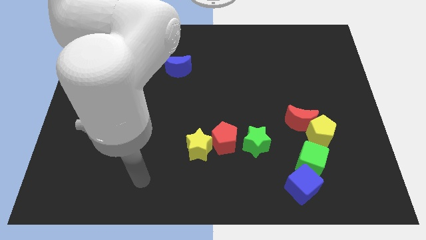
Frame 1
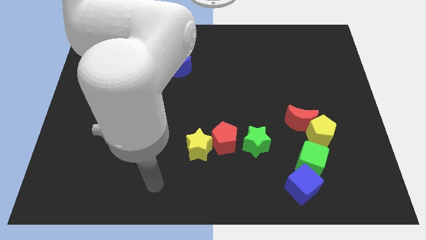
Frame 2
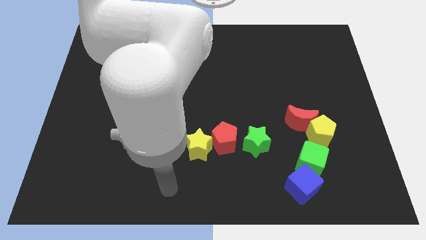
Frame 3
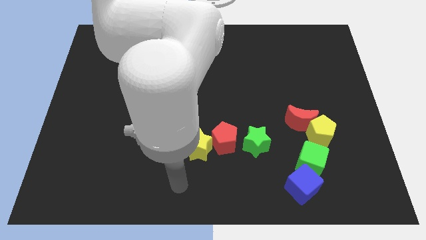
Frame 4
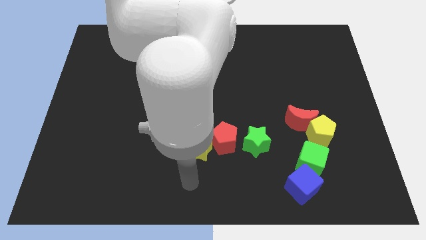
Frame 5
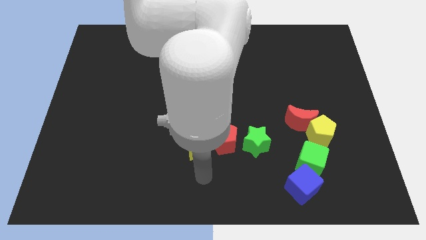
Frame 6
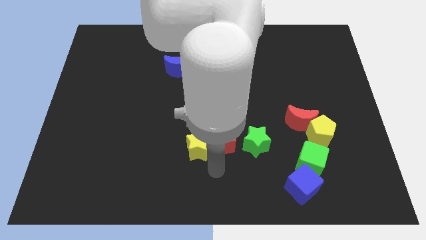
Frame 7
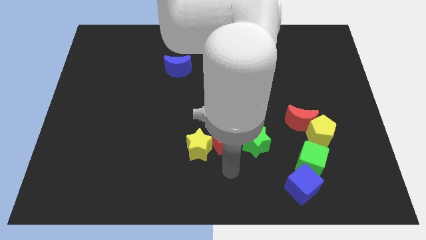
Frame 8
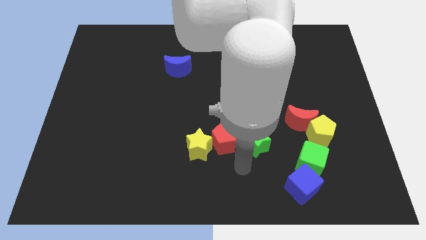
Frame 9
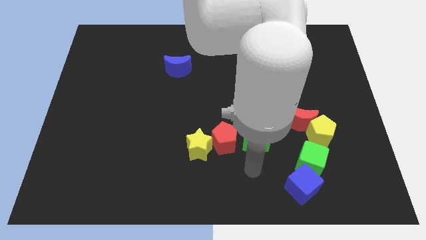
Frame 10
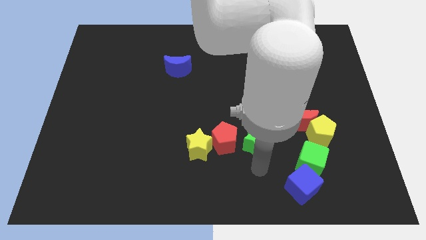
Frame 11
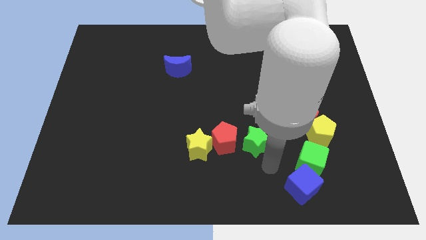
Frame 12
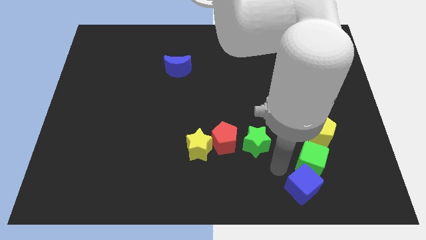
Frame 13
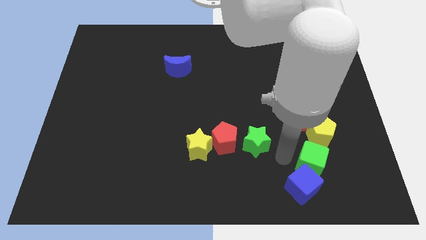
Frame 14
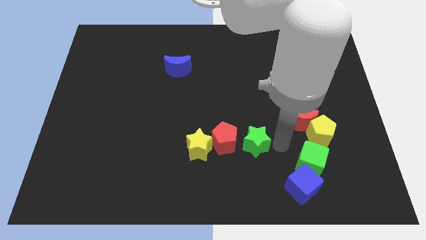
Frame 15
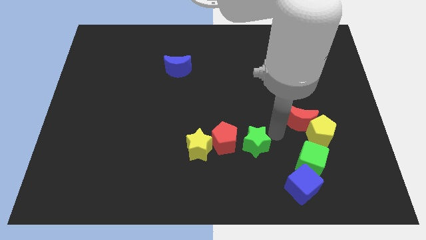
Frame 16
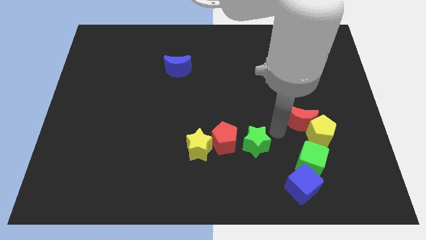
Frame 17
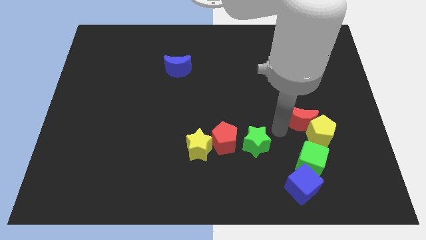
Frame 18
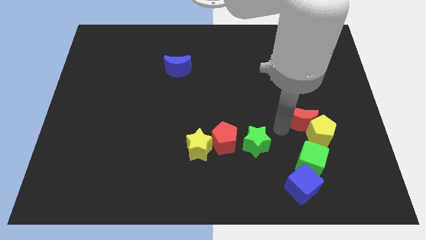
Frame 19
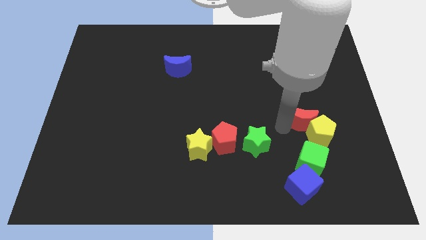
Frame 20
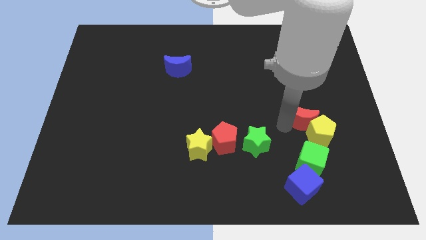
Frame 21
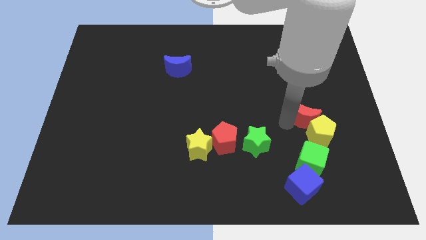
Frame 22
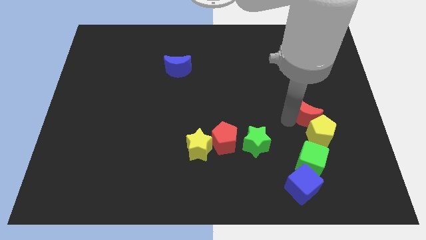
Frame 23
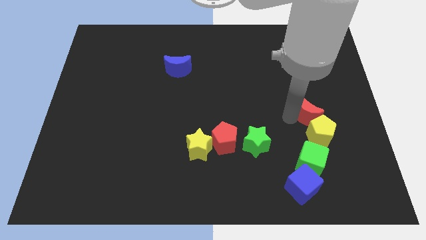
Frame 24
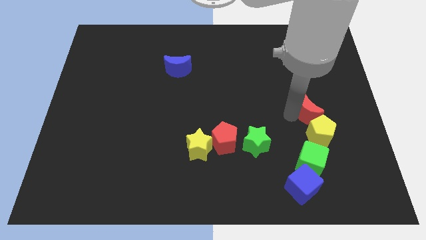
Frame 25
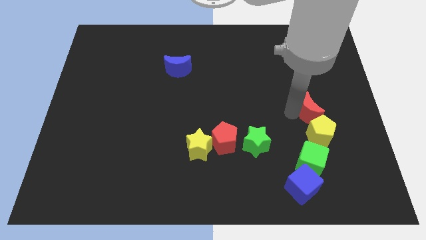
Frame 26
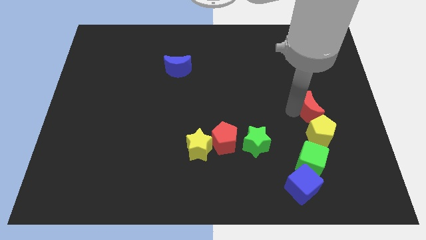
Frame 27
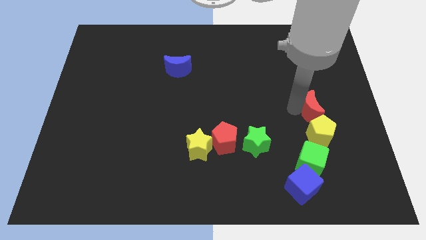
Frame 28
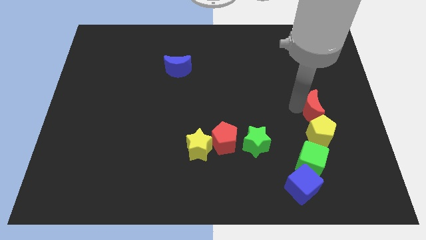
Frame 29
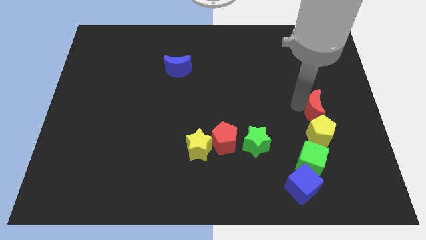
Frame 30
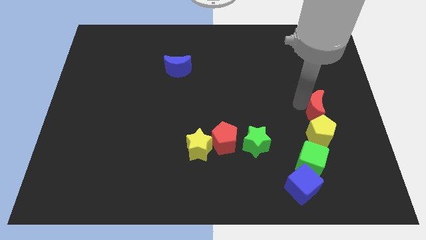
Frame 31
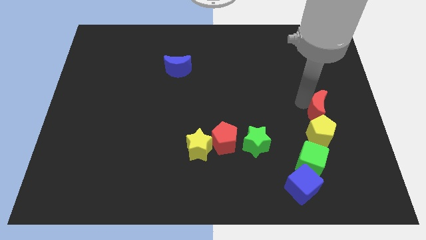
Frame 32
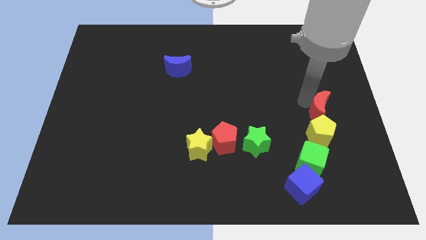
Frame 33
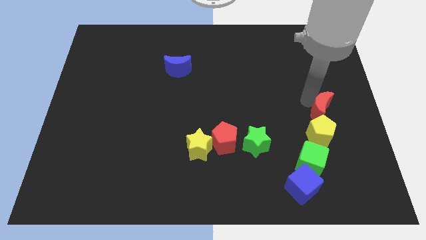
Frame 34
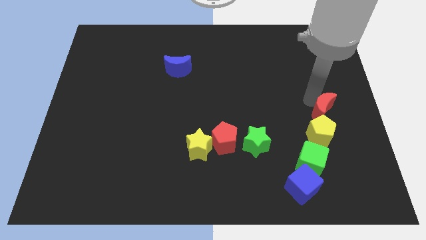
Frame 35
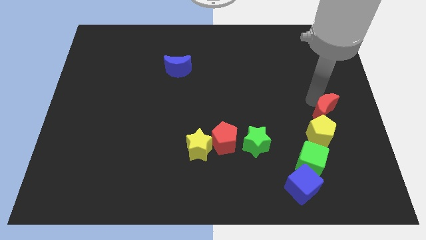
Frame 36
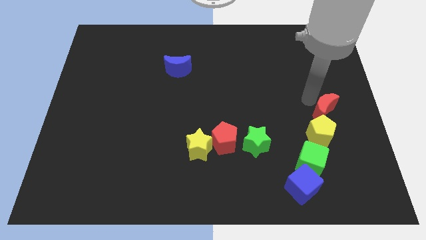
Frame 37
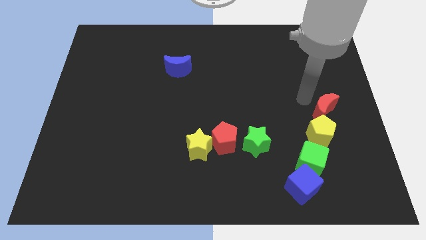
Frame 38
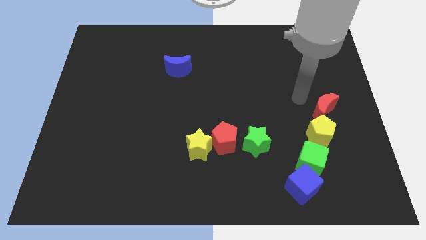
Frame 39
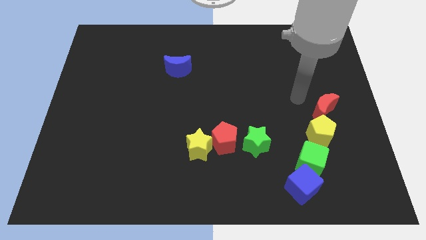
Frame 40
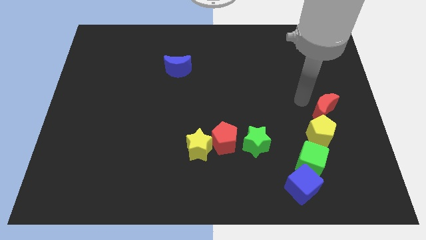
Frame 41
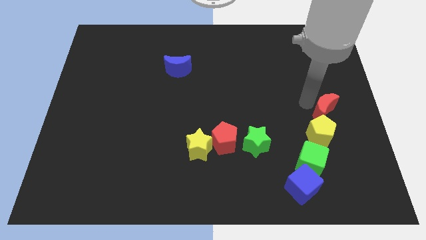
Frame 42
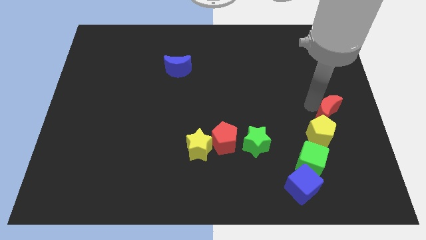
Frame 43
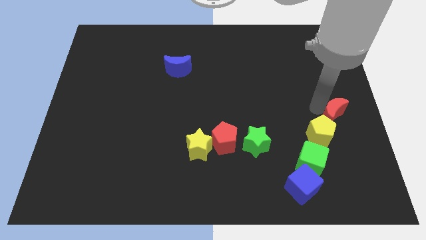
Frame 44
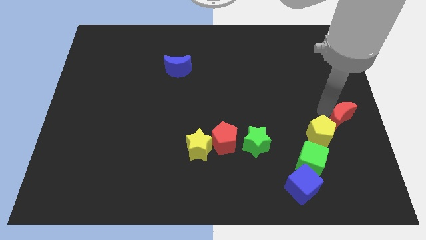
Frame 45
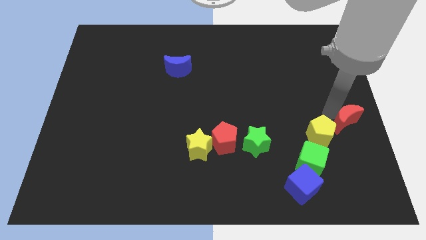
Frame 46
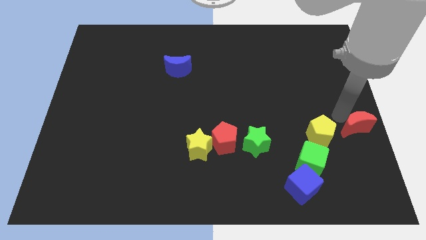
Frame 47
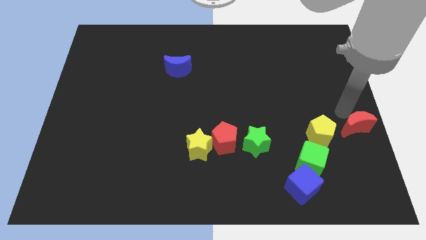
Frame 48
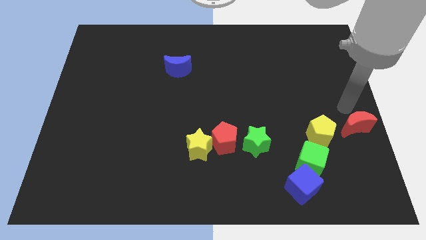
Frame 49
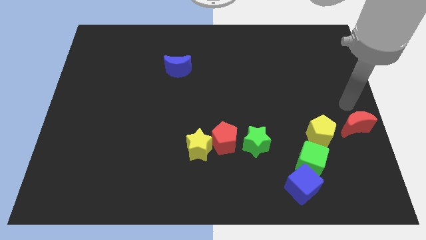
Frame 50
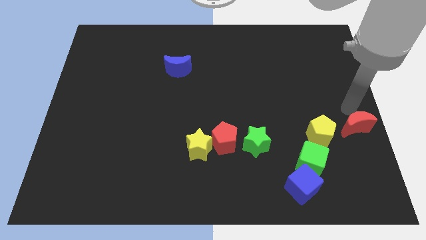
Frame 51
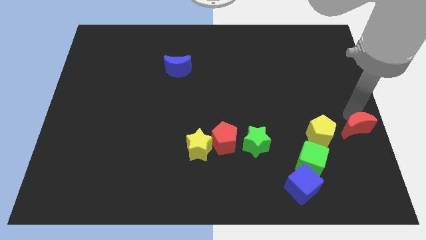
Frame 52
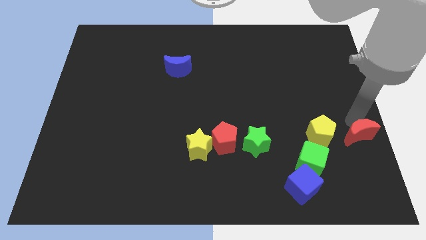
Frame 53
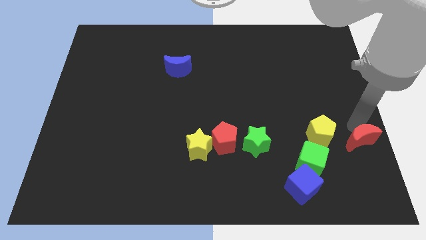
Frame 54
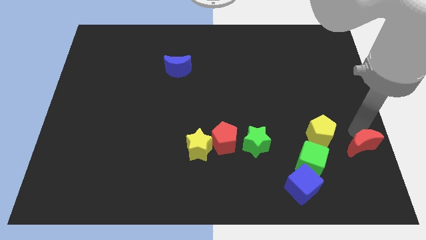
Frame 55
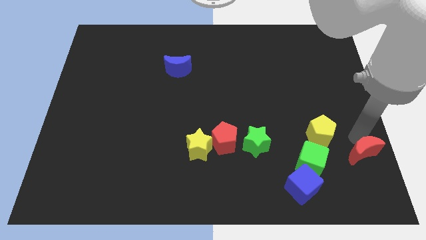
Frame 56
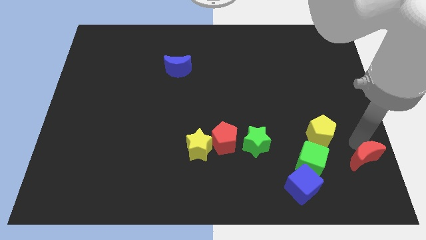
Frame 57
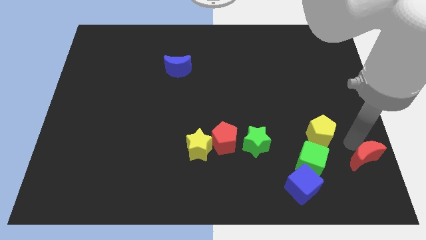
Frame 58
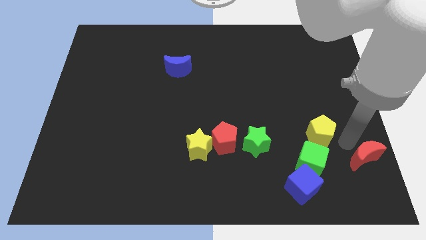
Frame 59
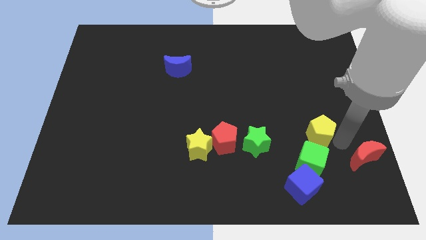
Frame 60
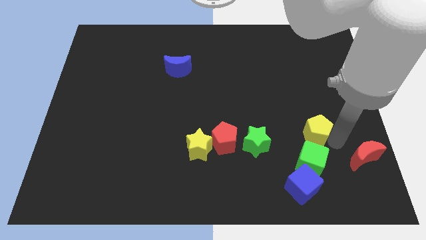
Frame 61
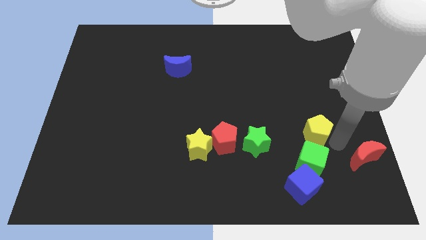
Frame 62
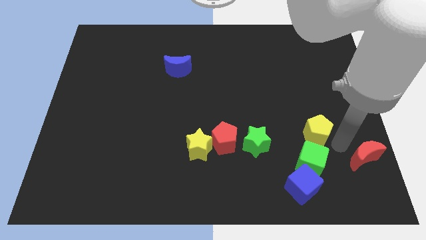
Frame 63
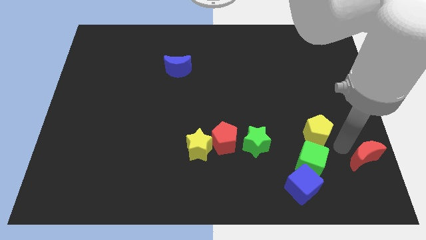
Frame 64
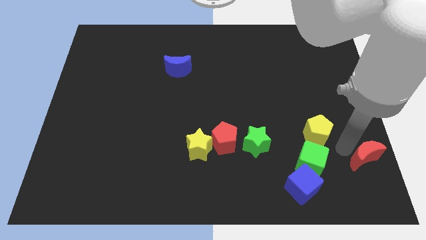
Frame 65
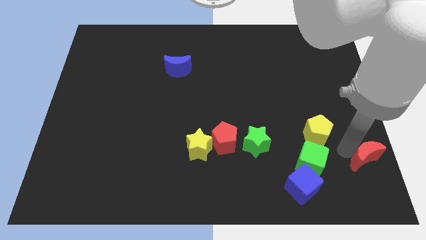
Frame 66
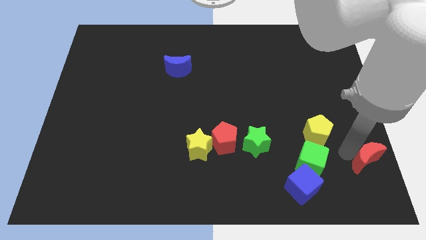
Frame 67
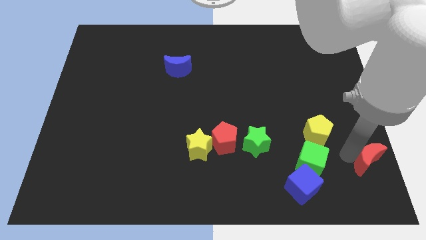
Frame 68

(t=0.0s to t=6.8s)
move the red moon to the bottom right corner
